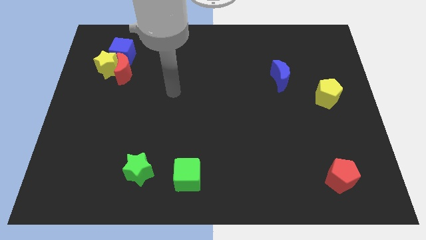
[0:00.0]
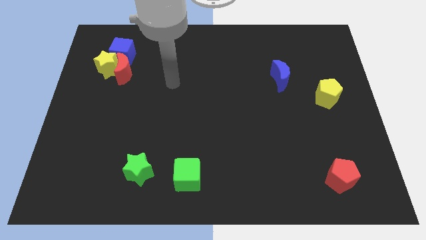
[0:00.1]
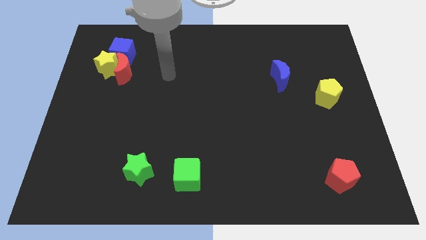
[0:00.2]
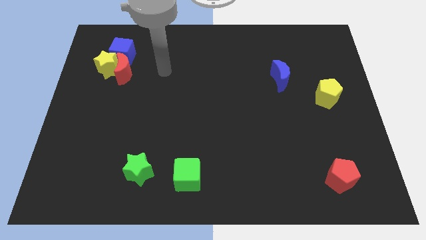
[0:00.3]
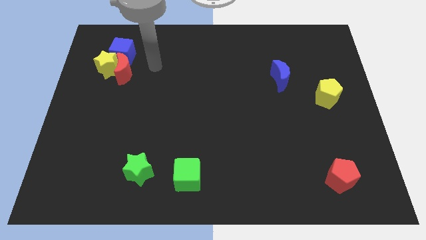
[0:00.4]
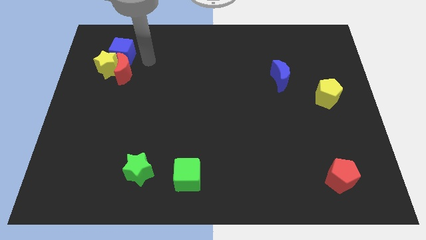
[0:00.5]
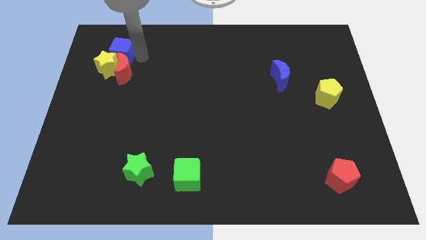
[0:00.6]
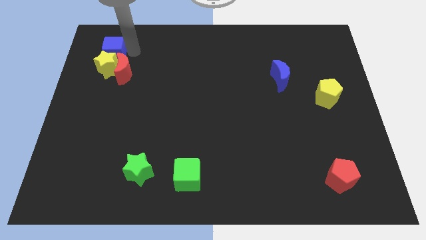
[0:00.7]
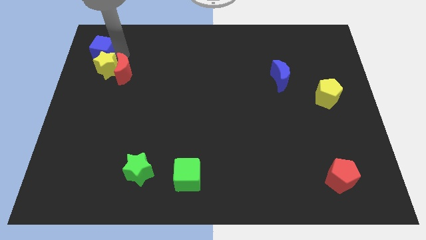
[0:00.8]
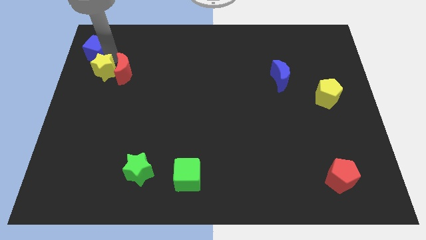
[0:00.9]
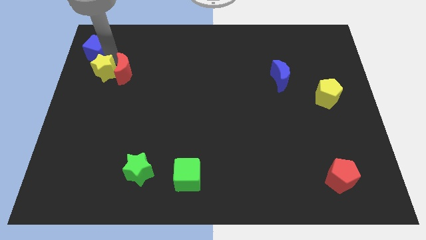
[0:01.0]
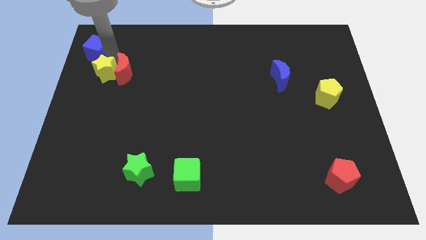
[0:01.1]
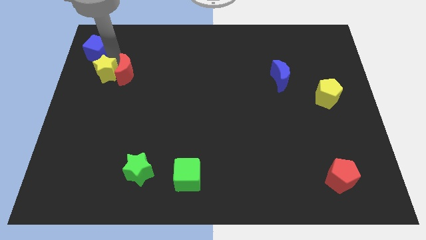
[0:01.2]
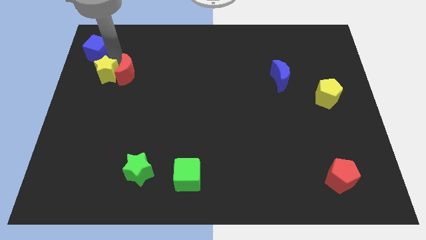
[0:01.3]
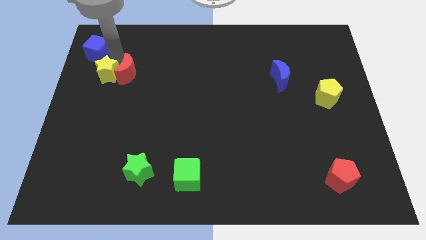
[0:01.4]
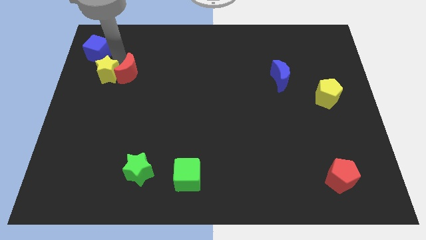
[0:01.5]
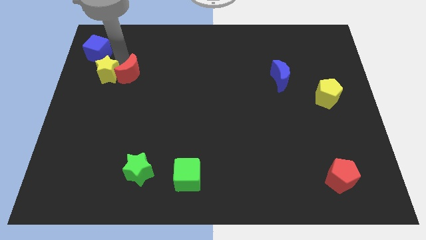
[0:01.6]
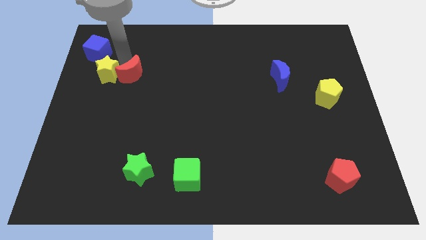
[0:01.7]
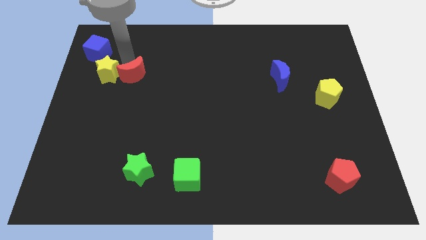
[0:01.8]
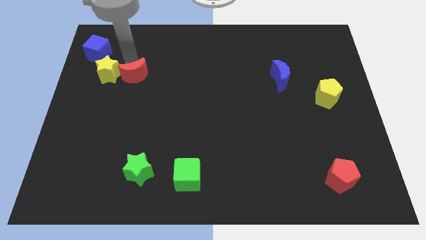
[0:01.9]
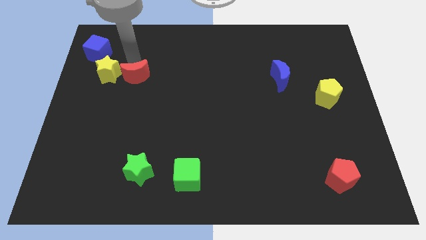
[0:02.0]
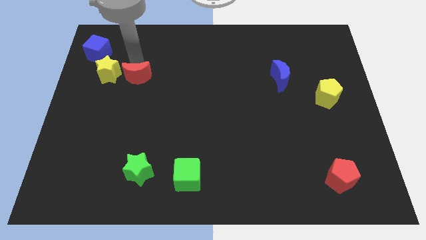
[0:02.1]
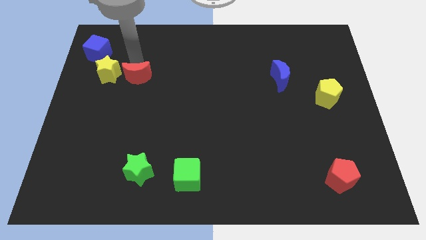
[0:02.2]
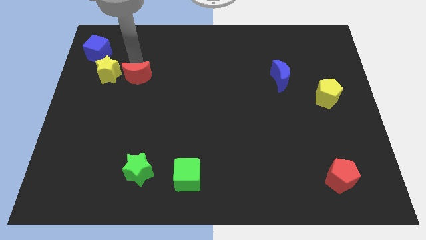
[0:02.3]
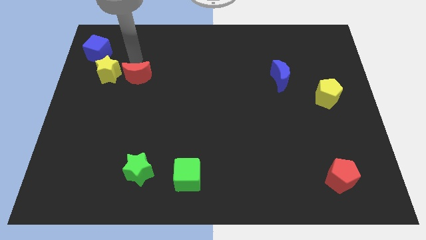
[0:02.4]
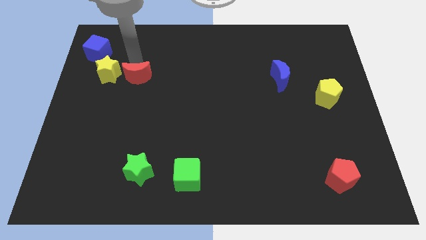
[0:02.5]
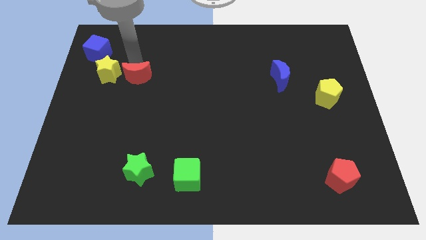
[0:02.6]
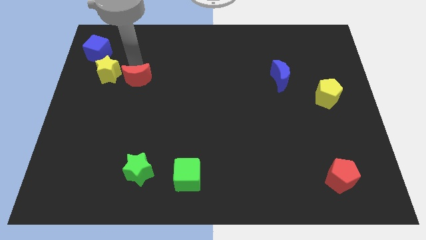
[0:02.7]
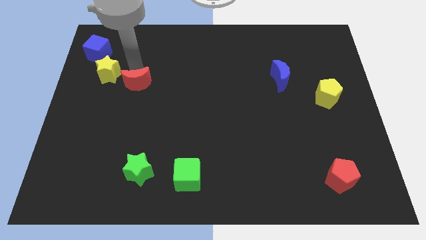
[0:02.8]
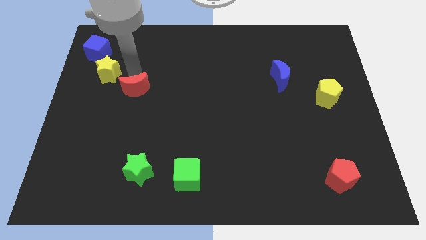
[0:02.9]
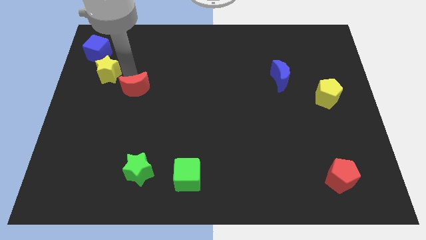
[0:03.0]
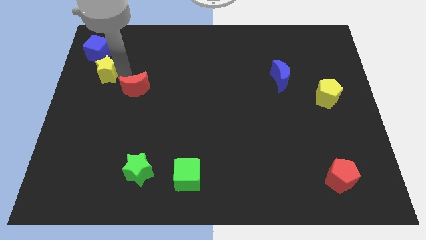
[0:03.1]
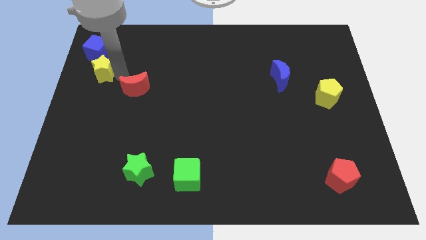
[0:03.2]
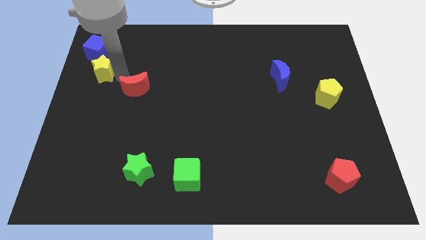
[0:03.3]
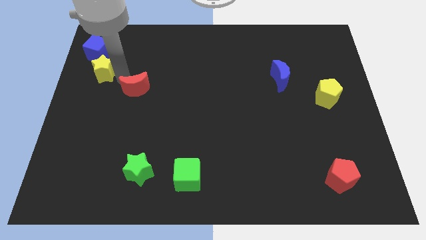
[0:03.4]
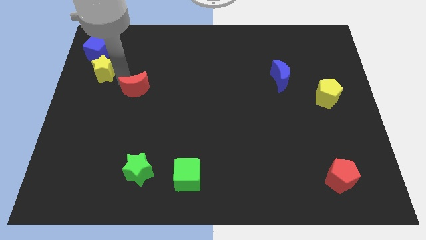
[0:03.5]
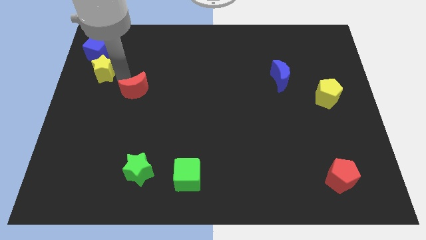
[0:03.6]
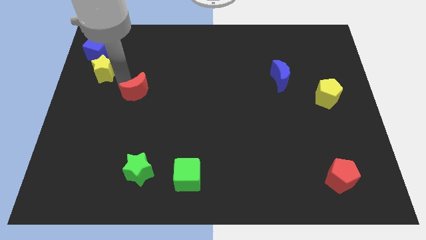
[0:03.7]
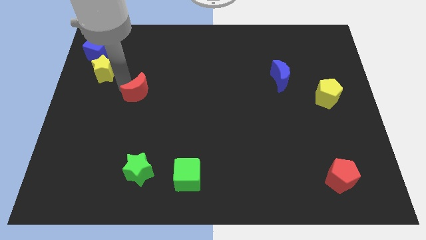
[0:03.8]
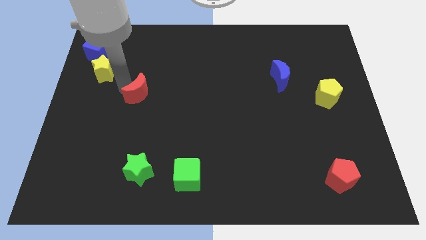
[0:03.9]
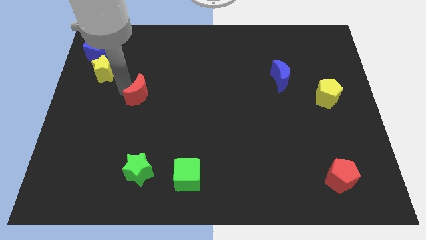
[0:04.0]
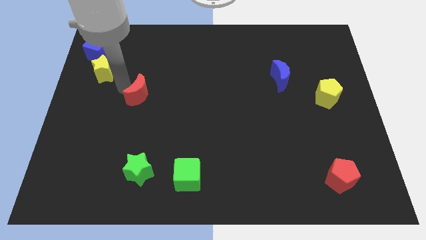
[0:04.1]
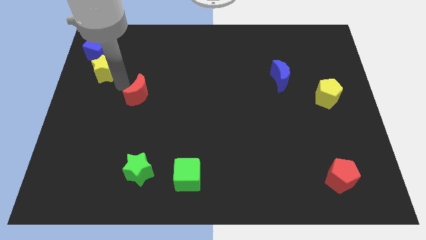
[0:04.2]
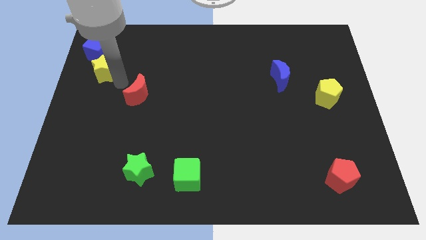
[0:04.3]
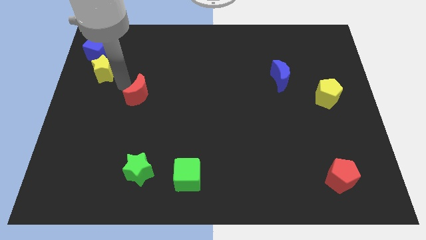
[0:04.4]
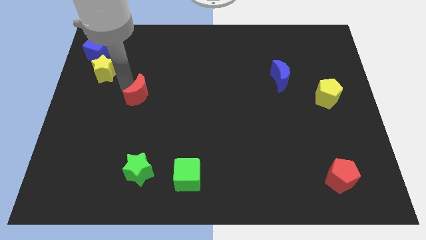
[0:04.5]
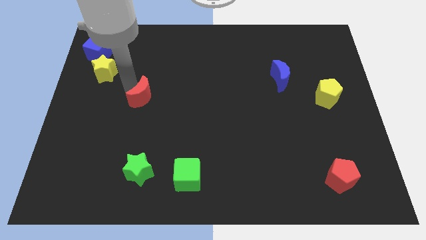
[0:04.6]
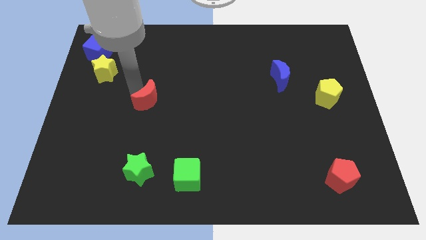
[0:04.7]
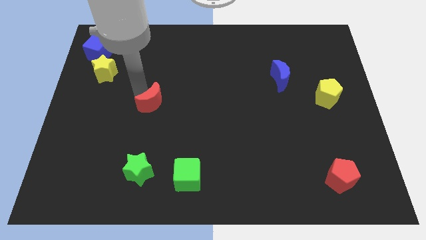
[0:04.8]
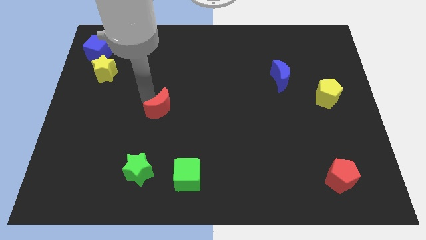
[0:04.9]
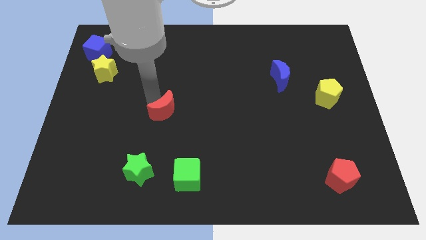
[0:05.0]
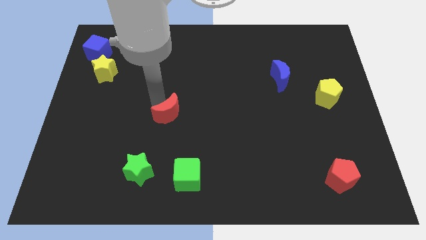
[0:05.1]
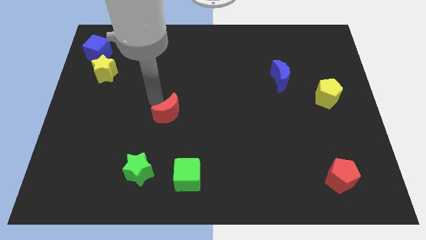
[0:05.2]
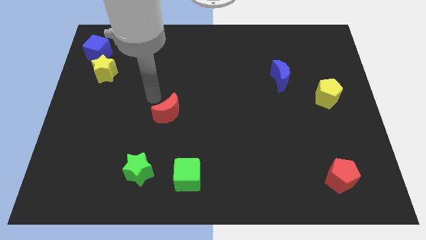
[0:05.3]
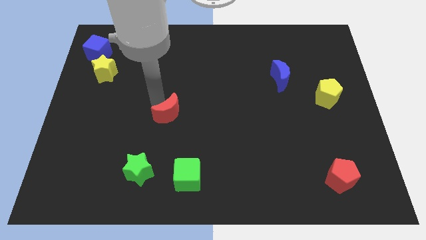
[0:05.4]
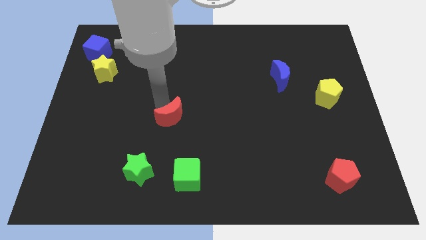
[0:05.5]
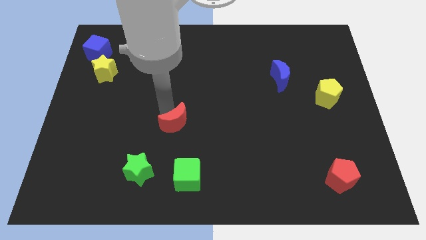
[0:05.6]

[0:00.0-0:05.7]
push the red moon diagonally down and to the right

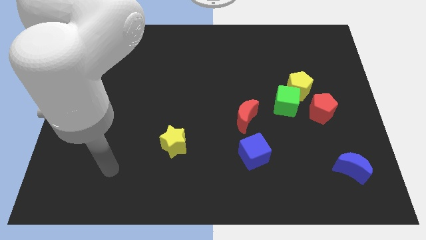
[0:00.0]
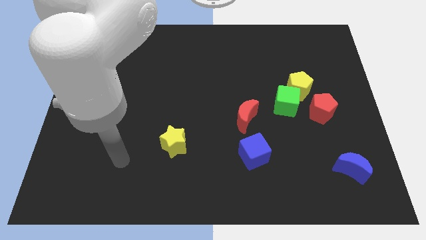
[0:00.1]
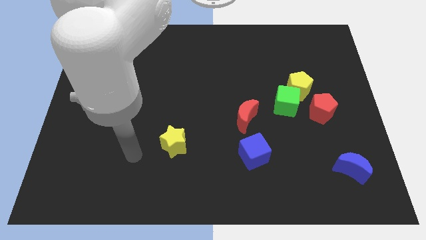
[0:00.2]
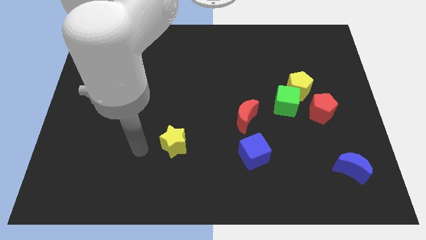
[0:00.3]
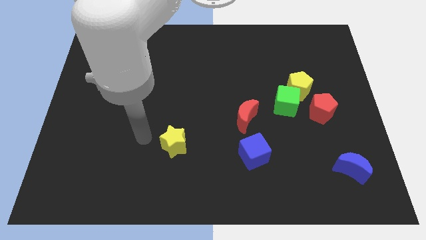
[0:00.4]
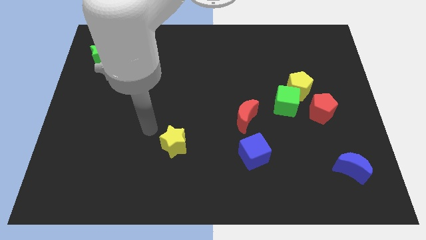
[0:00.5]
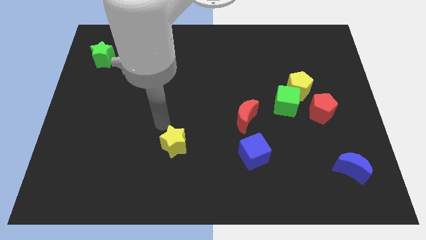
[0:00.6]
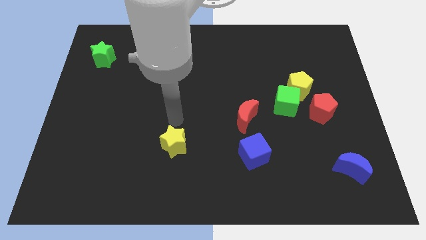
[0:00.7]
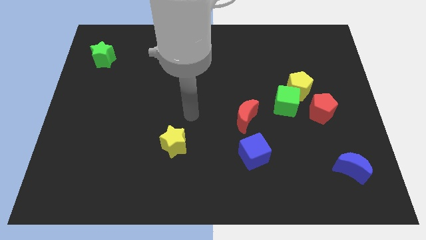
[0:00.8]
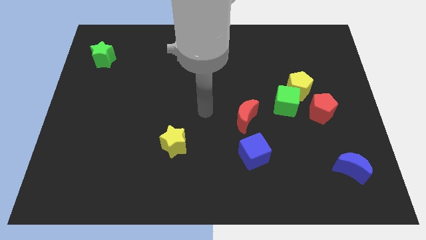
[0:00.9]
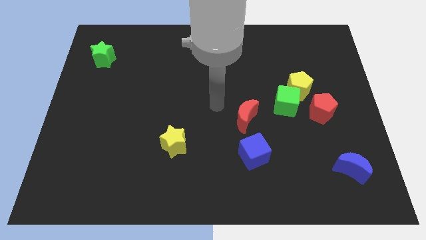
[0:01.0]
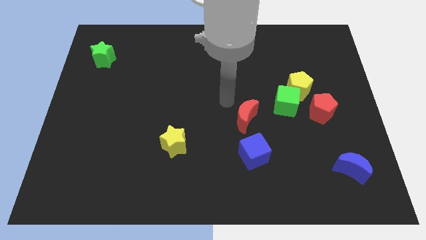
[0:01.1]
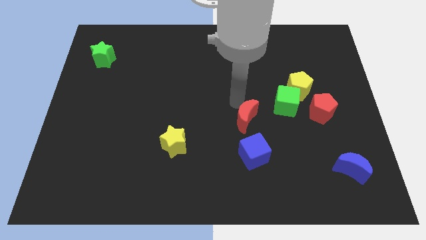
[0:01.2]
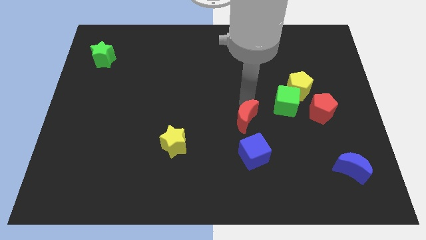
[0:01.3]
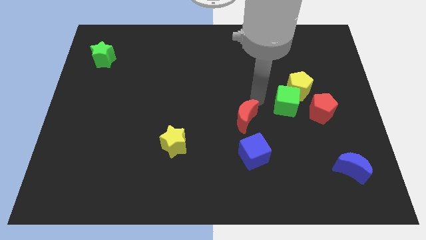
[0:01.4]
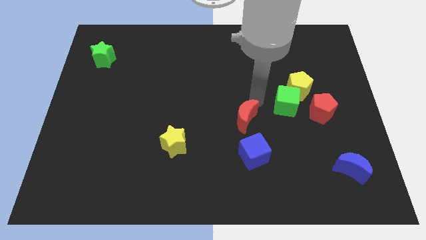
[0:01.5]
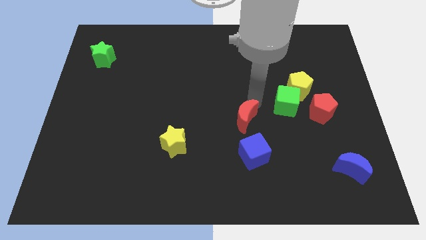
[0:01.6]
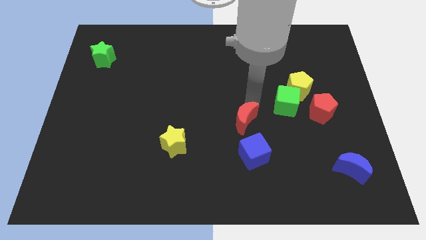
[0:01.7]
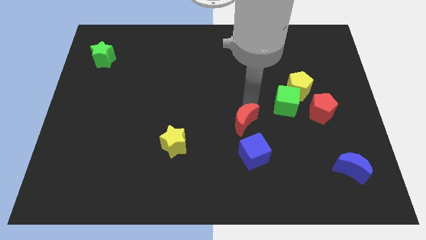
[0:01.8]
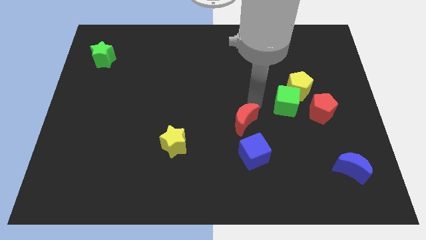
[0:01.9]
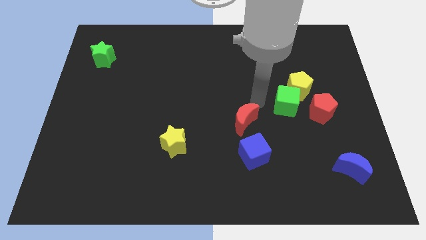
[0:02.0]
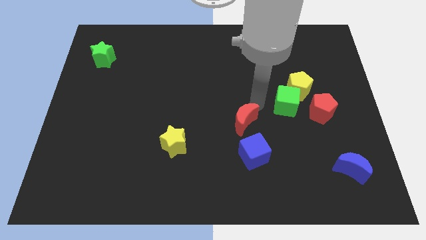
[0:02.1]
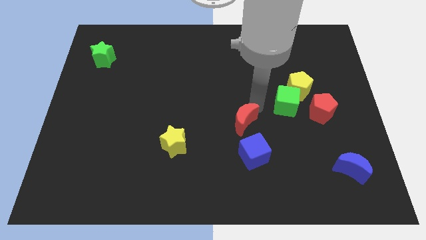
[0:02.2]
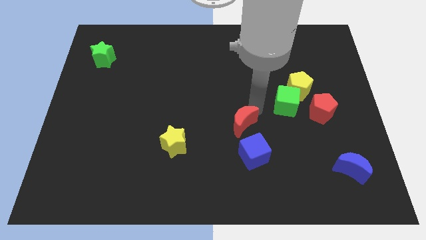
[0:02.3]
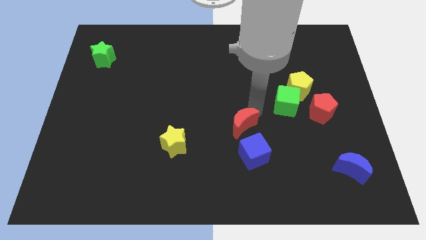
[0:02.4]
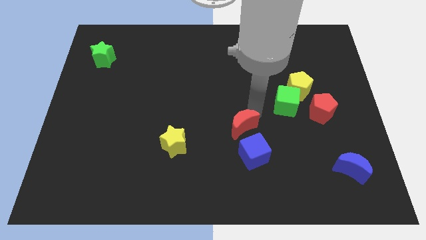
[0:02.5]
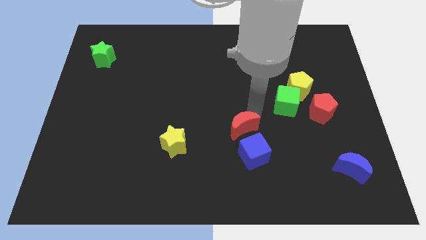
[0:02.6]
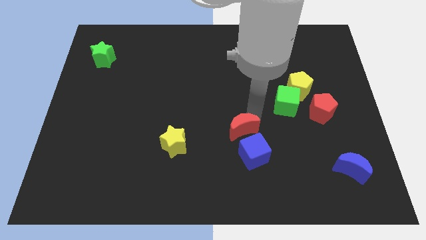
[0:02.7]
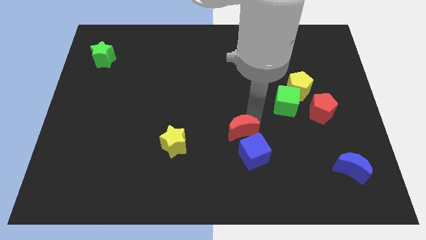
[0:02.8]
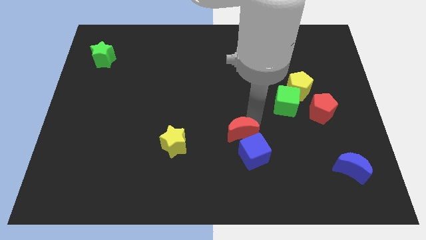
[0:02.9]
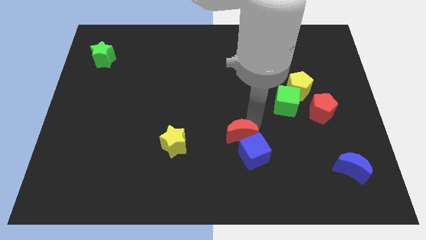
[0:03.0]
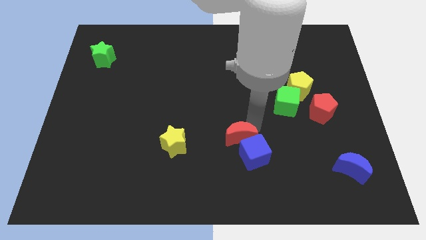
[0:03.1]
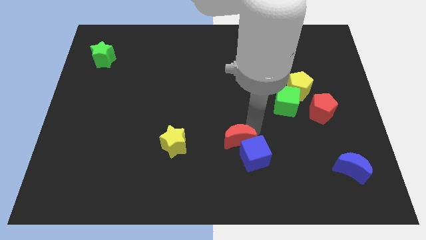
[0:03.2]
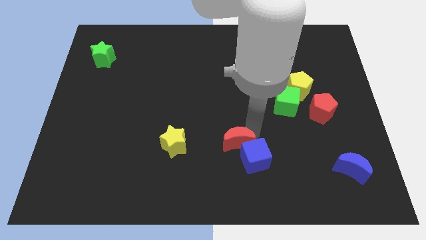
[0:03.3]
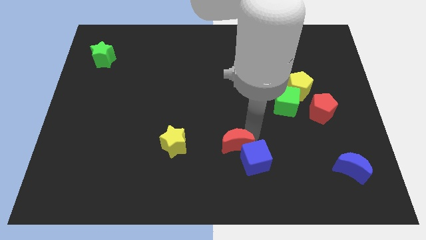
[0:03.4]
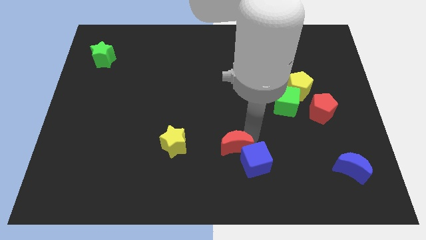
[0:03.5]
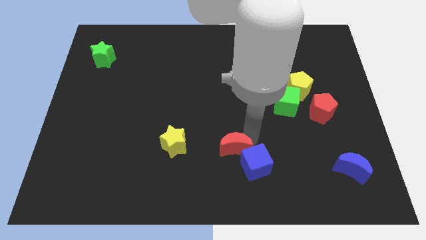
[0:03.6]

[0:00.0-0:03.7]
slightly slide the red moon downwards and left
